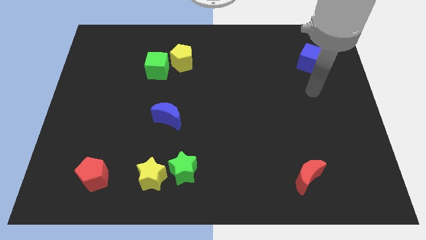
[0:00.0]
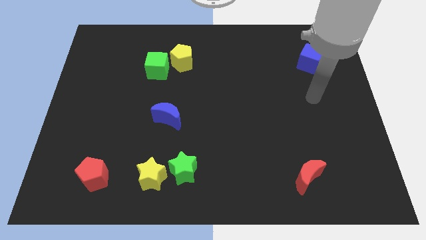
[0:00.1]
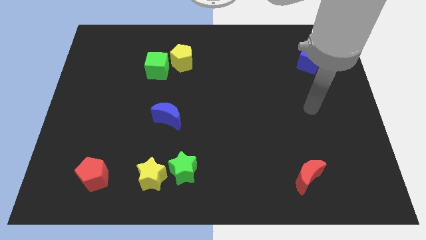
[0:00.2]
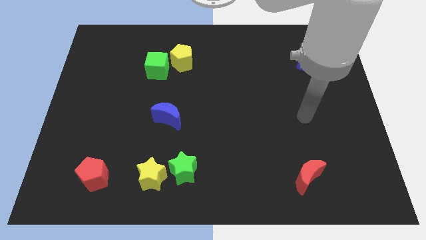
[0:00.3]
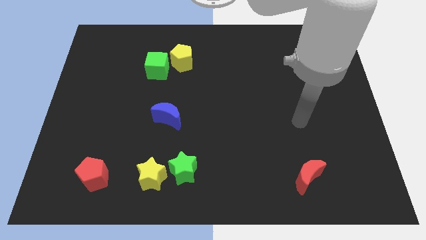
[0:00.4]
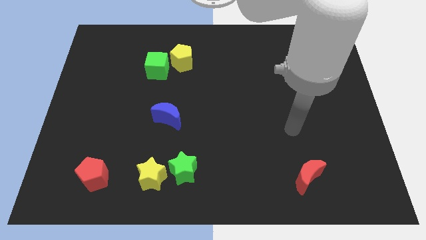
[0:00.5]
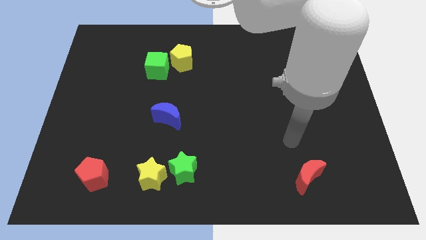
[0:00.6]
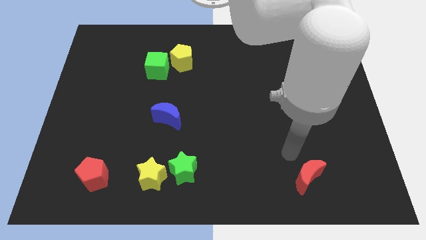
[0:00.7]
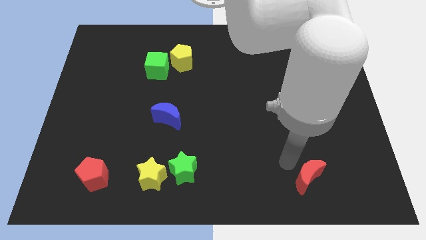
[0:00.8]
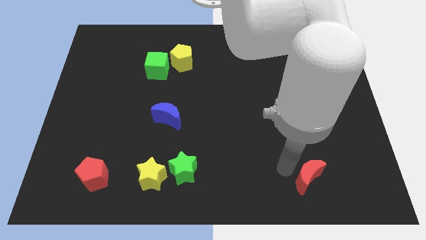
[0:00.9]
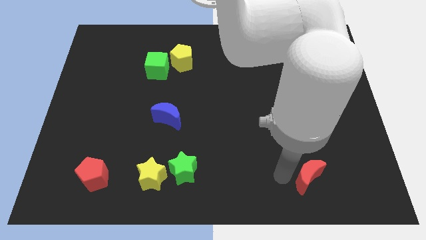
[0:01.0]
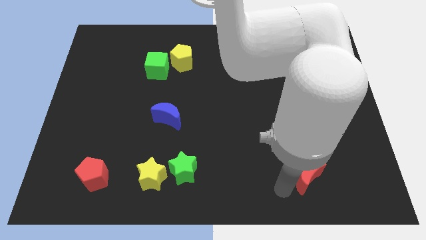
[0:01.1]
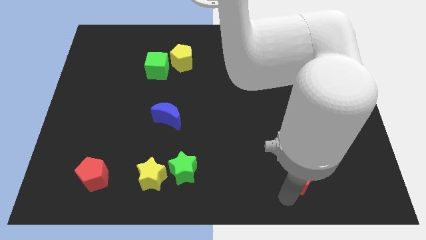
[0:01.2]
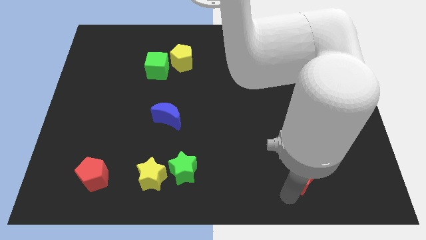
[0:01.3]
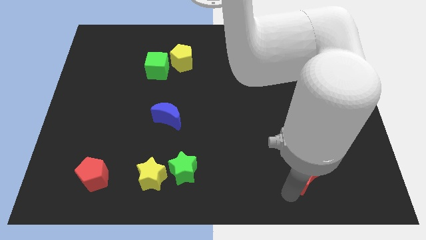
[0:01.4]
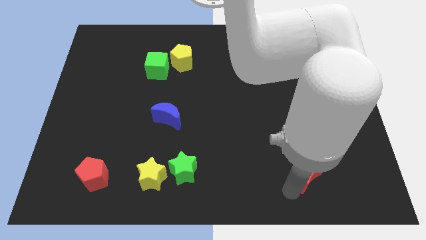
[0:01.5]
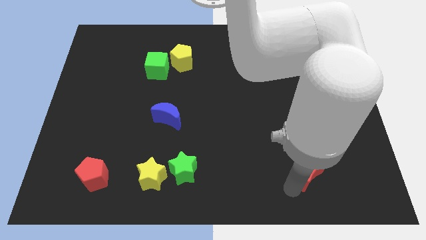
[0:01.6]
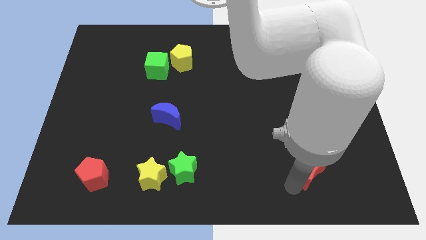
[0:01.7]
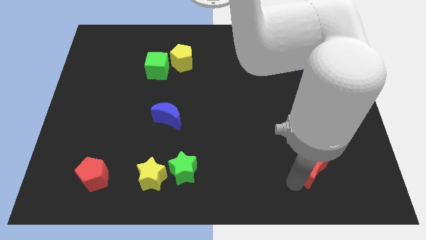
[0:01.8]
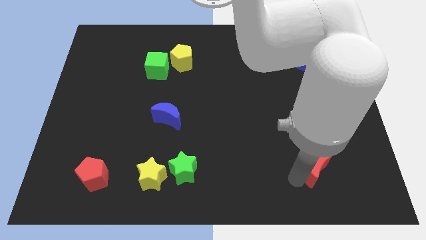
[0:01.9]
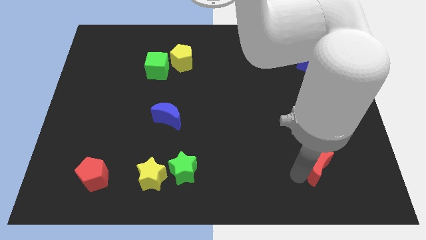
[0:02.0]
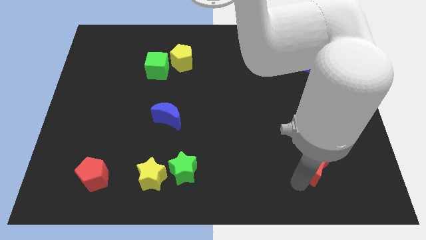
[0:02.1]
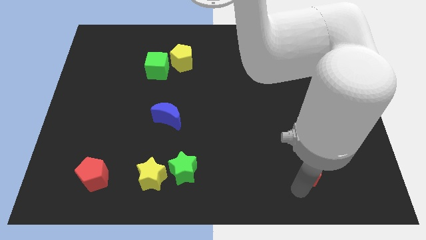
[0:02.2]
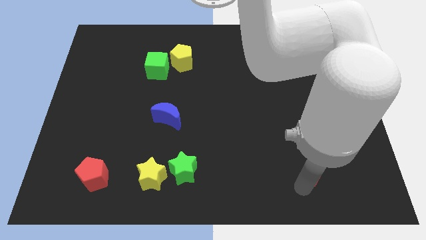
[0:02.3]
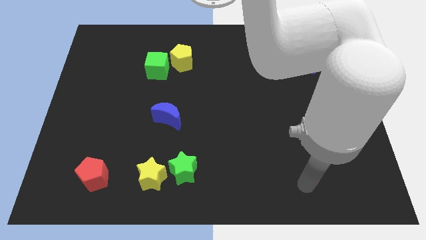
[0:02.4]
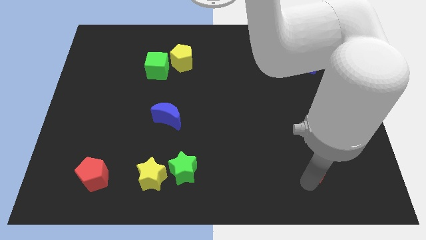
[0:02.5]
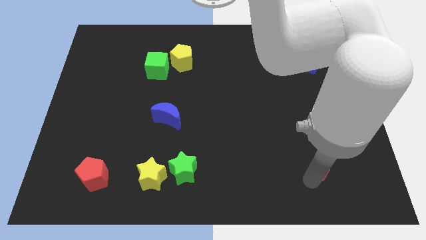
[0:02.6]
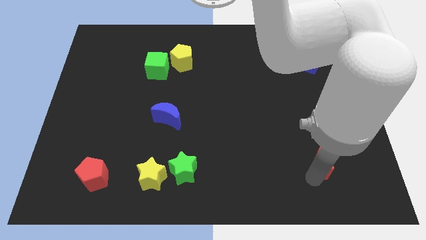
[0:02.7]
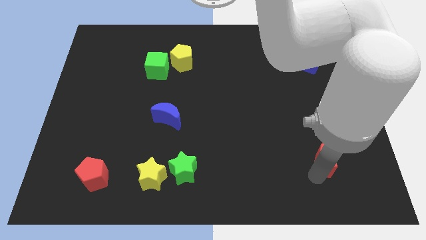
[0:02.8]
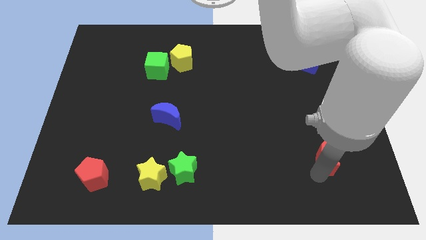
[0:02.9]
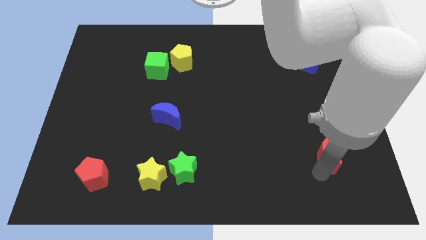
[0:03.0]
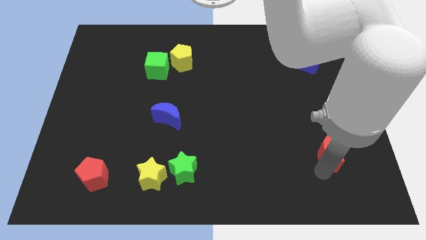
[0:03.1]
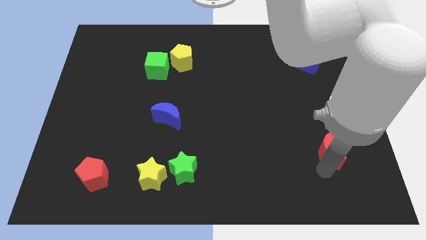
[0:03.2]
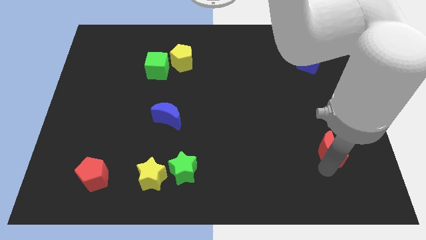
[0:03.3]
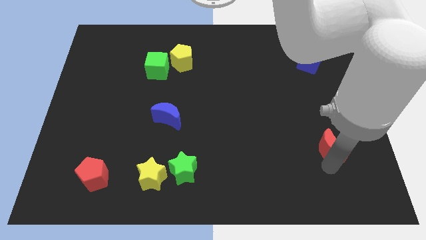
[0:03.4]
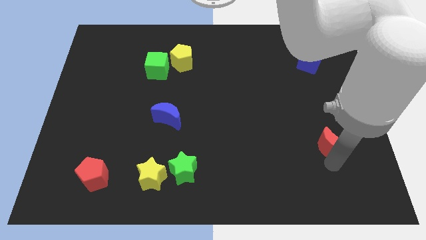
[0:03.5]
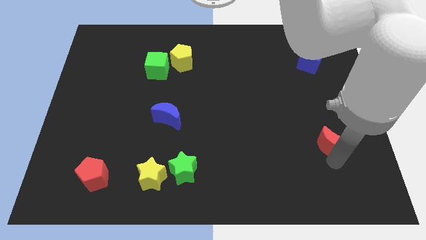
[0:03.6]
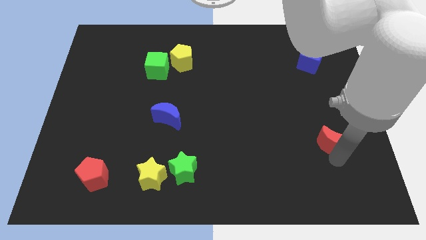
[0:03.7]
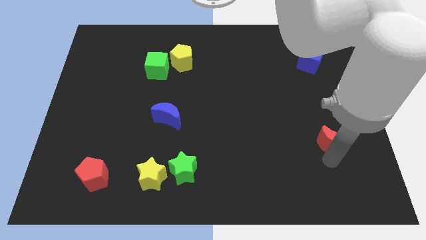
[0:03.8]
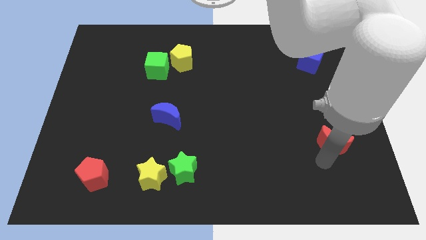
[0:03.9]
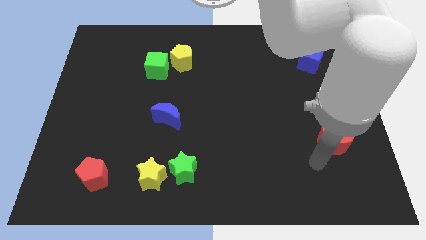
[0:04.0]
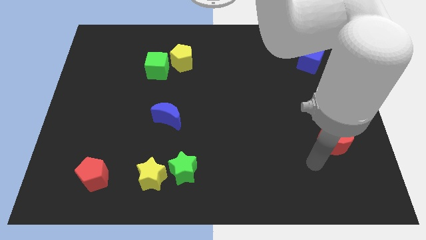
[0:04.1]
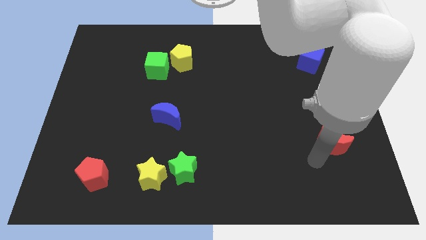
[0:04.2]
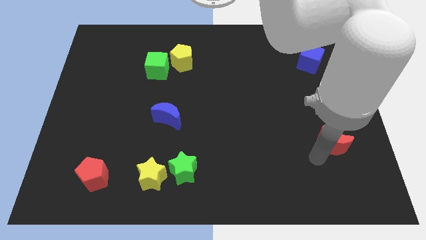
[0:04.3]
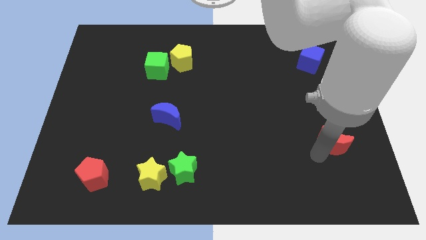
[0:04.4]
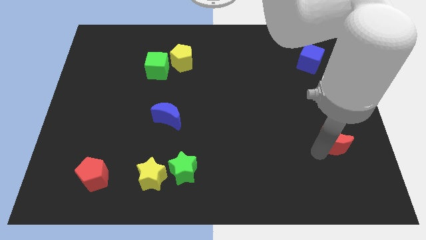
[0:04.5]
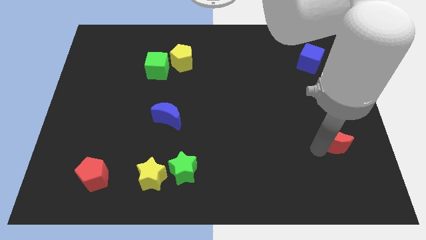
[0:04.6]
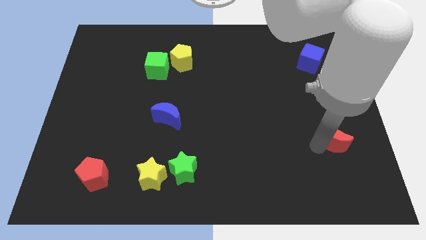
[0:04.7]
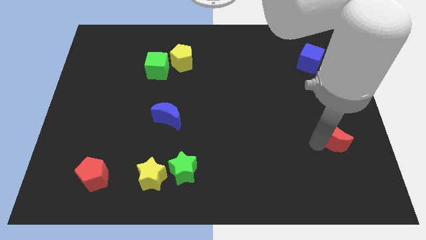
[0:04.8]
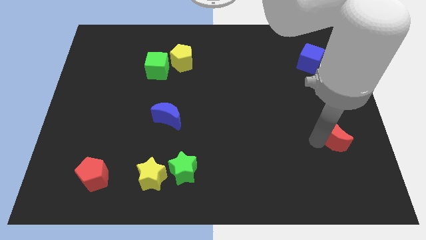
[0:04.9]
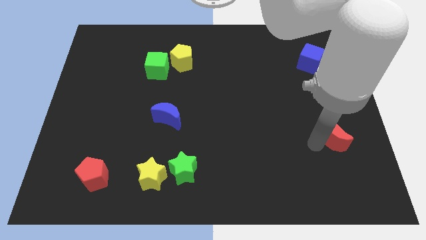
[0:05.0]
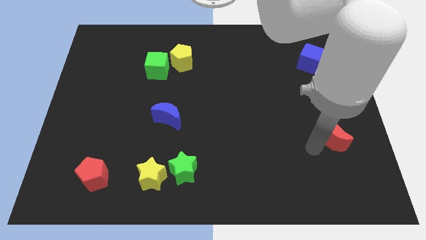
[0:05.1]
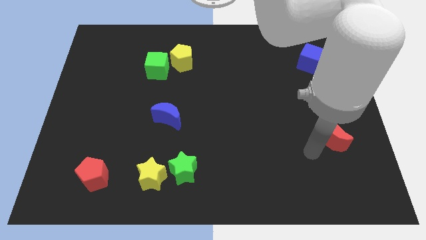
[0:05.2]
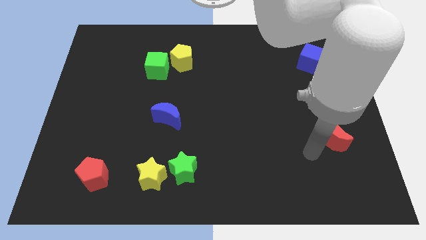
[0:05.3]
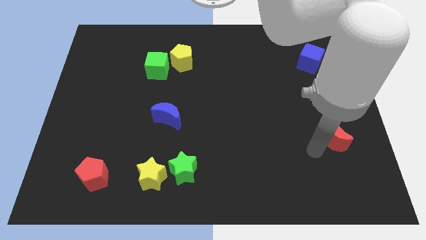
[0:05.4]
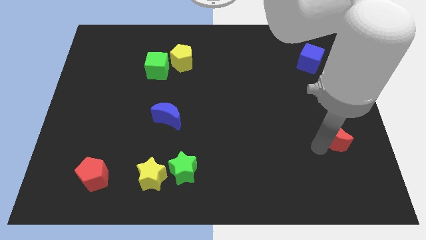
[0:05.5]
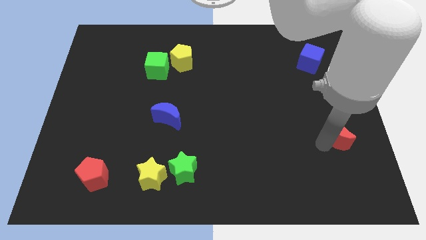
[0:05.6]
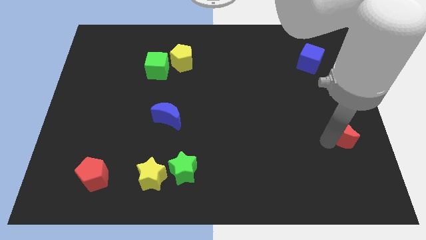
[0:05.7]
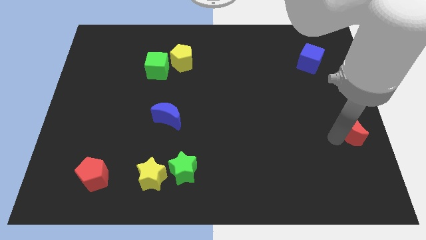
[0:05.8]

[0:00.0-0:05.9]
put the red moon to the right side of the board
